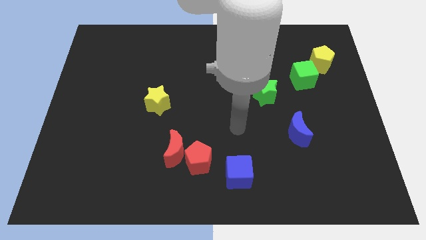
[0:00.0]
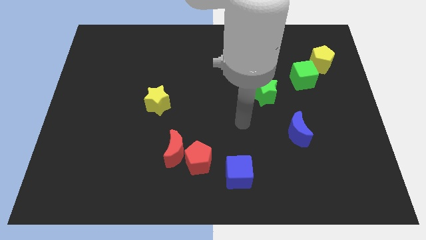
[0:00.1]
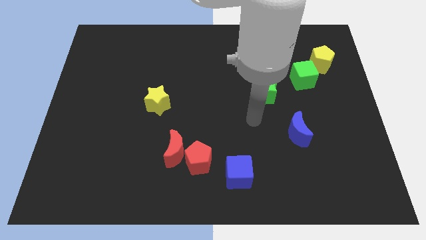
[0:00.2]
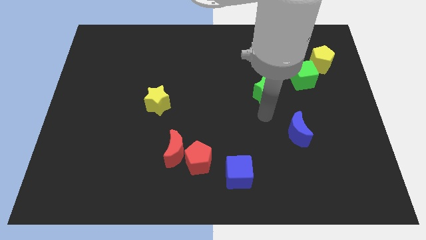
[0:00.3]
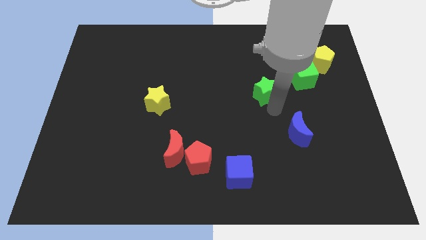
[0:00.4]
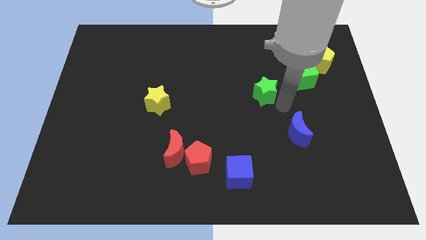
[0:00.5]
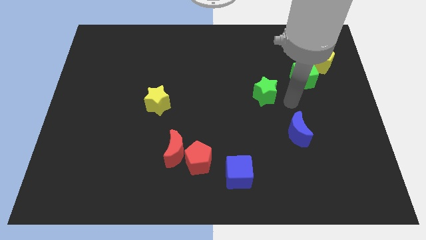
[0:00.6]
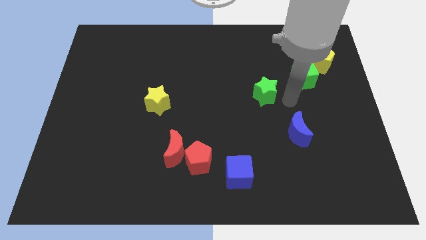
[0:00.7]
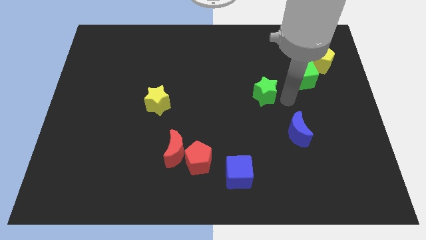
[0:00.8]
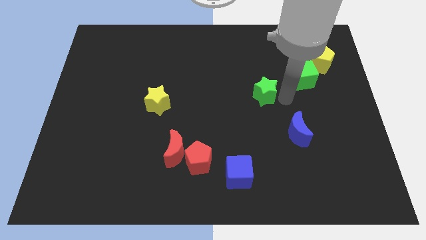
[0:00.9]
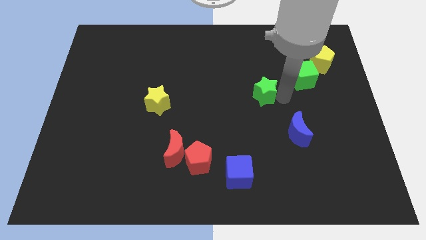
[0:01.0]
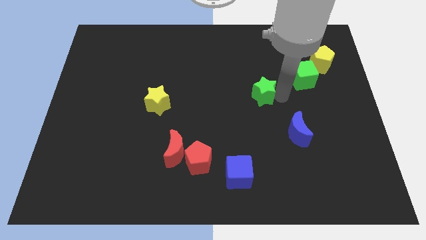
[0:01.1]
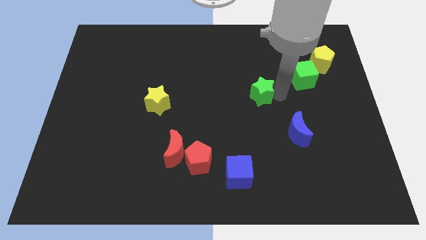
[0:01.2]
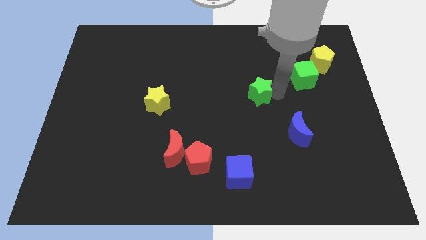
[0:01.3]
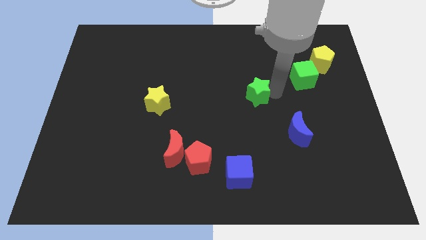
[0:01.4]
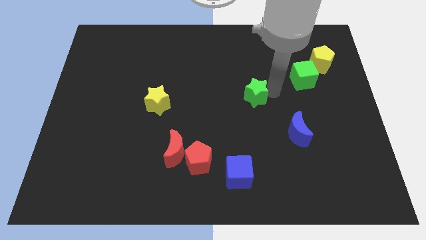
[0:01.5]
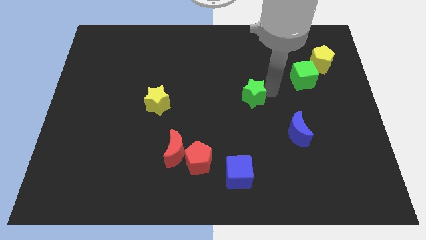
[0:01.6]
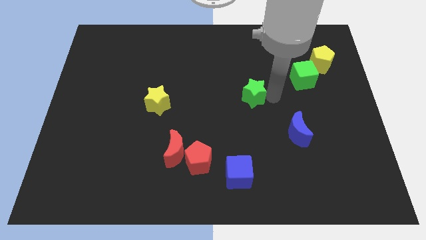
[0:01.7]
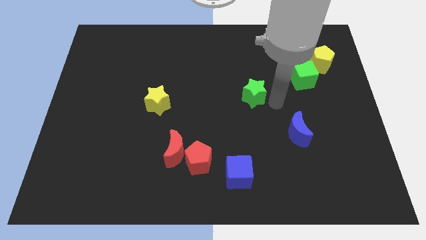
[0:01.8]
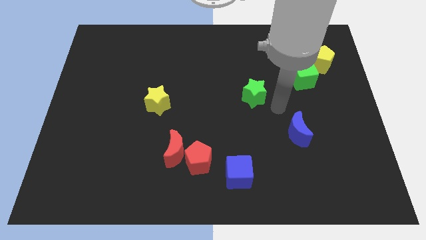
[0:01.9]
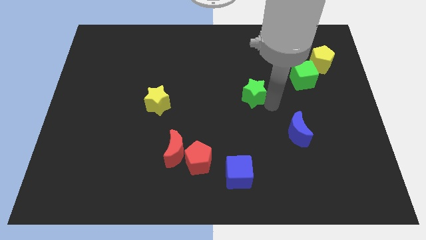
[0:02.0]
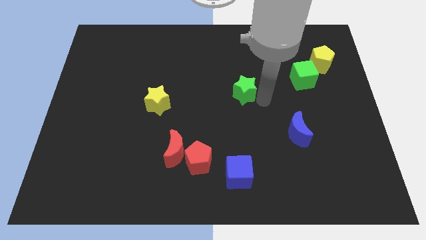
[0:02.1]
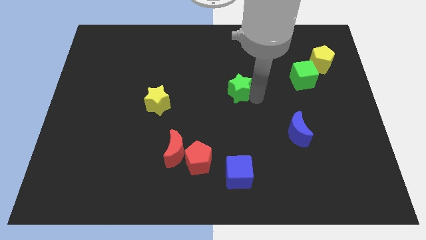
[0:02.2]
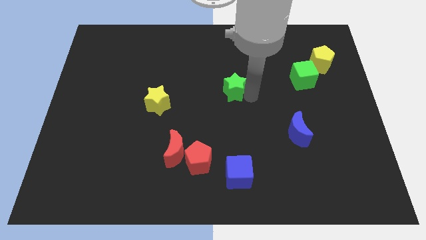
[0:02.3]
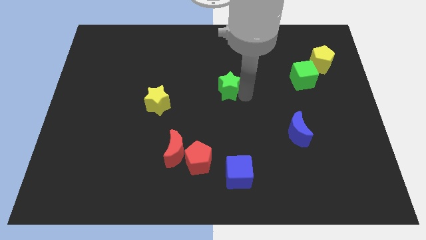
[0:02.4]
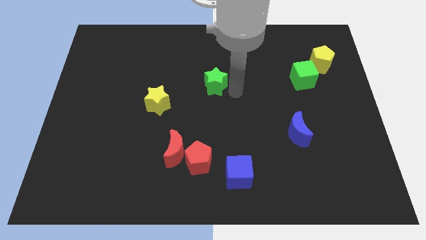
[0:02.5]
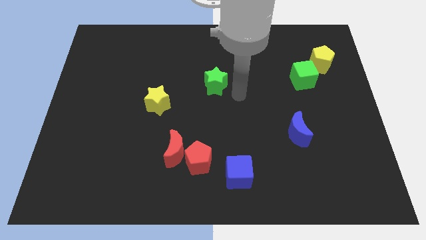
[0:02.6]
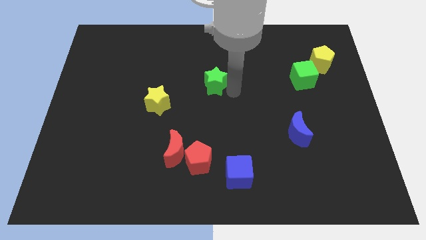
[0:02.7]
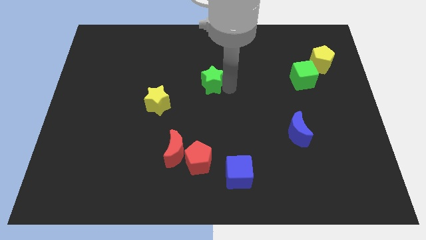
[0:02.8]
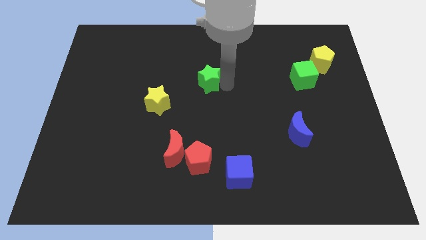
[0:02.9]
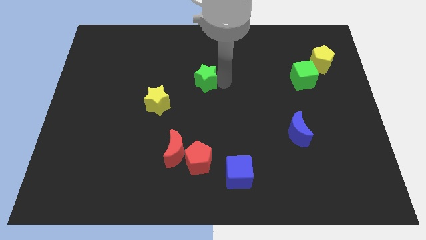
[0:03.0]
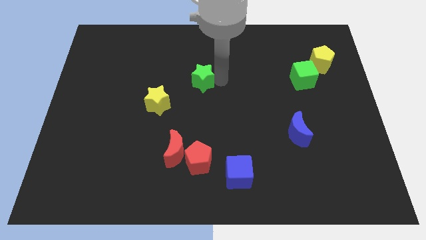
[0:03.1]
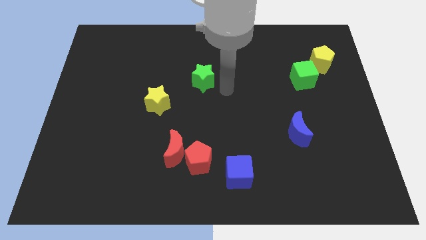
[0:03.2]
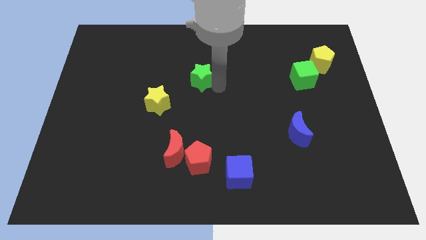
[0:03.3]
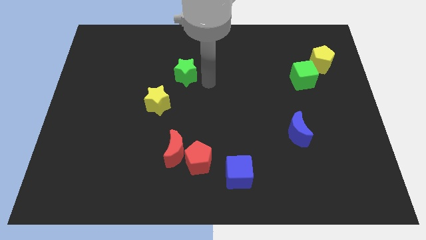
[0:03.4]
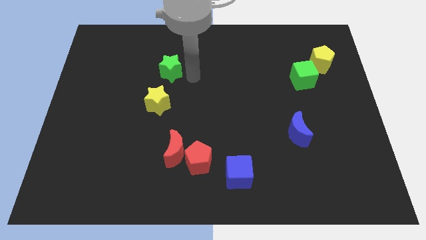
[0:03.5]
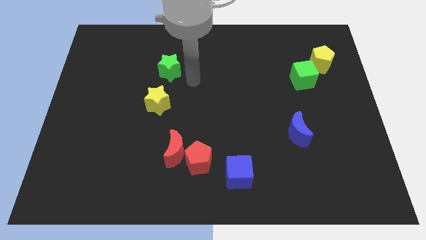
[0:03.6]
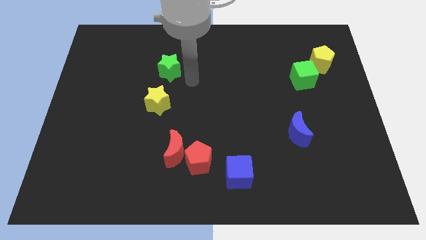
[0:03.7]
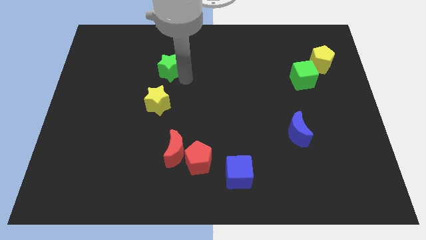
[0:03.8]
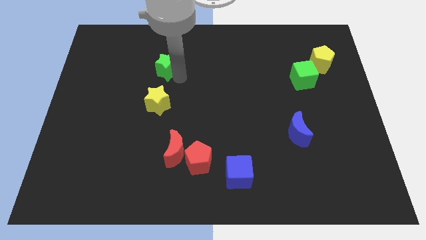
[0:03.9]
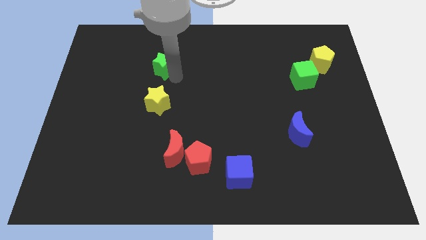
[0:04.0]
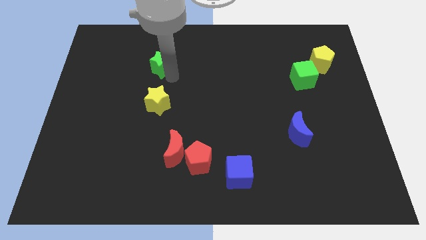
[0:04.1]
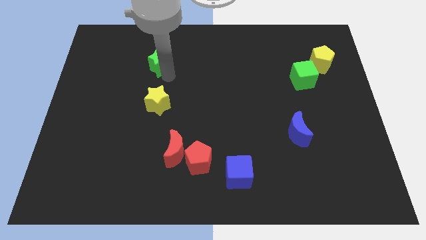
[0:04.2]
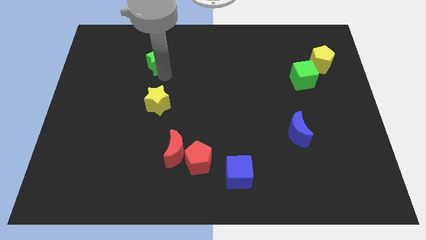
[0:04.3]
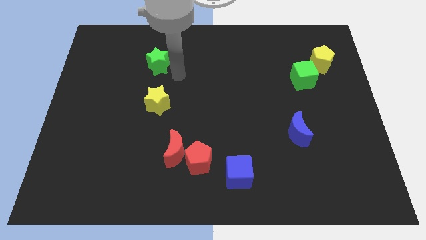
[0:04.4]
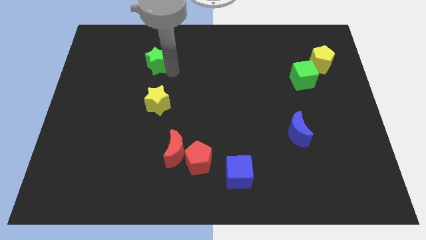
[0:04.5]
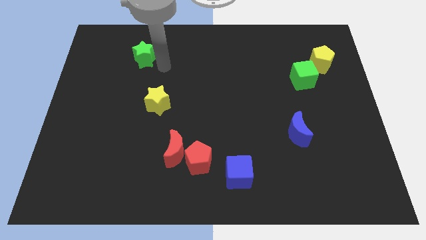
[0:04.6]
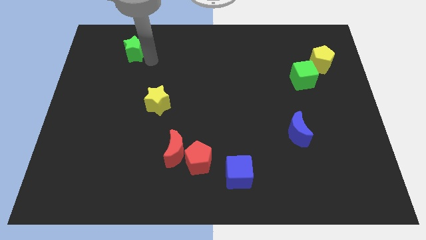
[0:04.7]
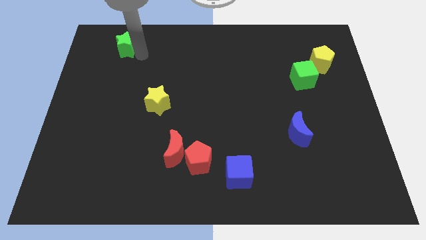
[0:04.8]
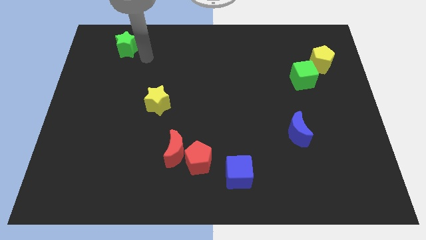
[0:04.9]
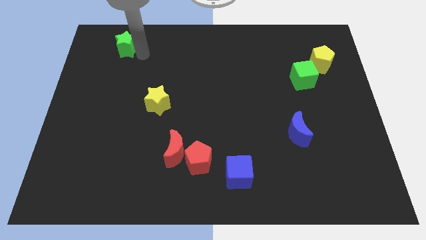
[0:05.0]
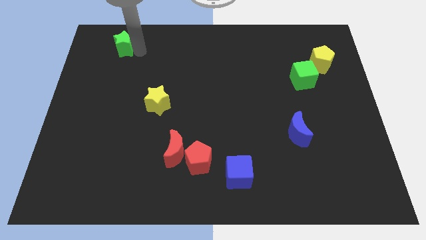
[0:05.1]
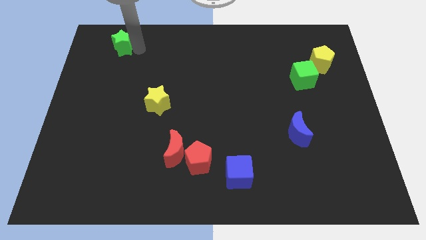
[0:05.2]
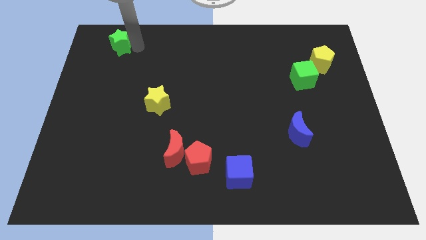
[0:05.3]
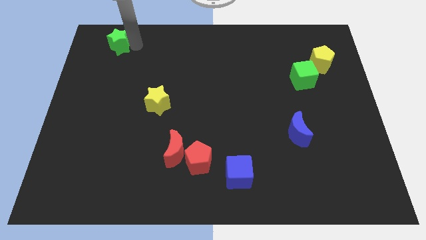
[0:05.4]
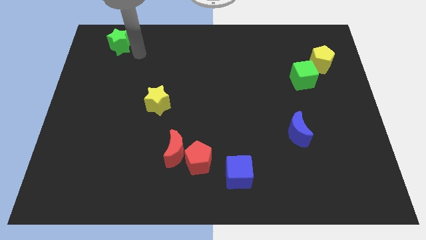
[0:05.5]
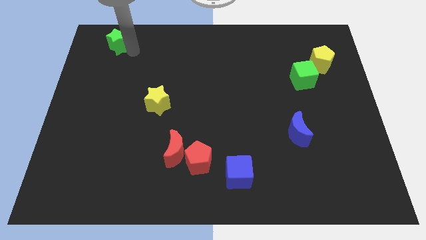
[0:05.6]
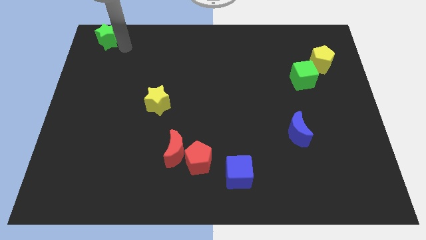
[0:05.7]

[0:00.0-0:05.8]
put the green star to the top left

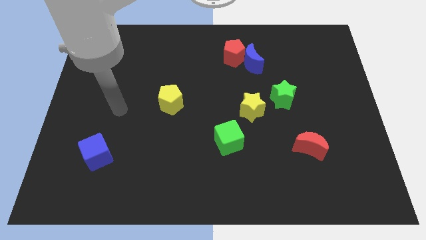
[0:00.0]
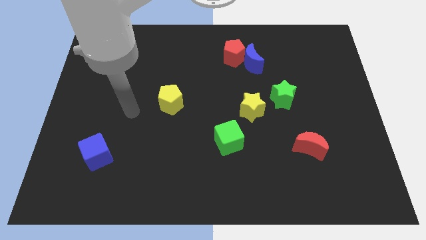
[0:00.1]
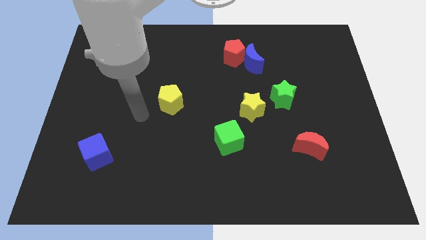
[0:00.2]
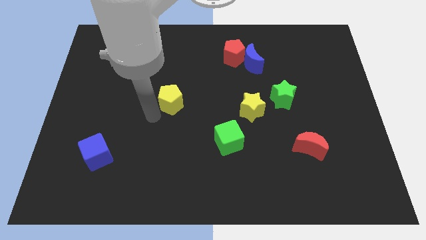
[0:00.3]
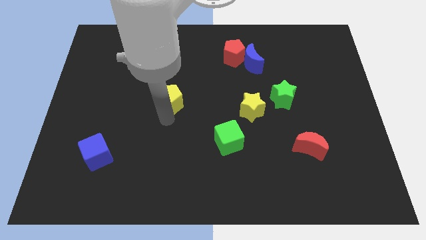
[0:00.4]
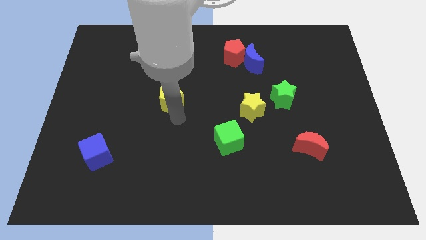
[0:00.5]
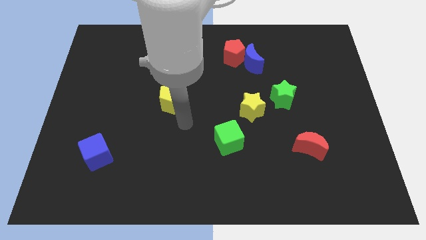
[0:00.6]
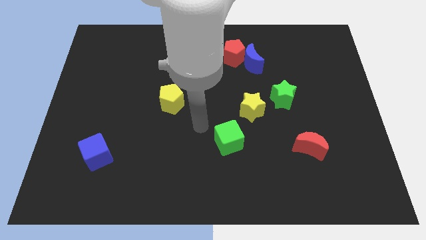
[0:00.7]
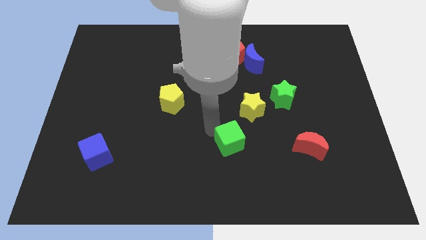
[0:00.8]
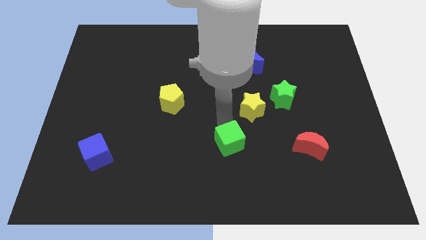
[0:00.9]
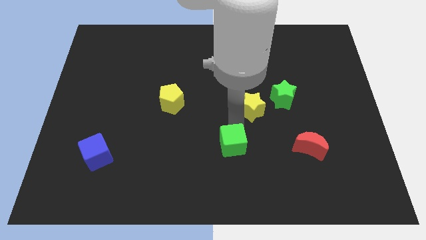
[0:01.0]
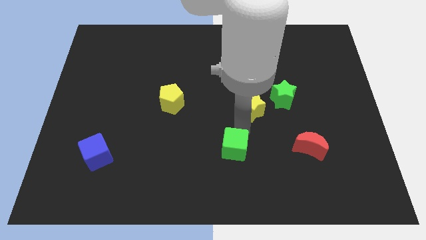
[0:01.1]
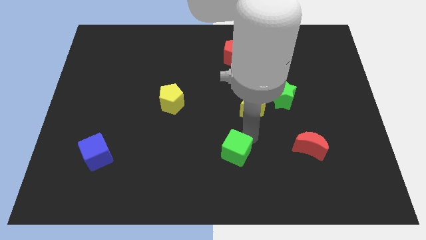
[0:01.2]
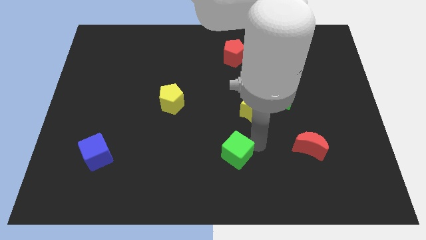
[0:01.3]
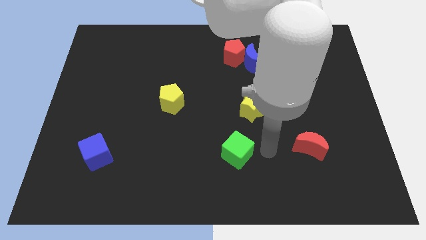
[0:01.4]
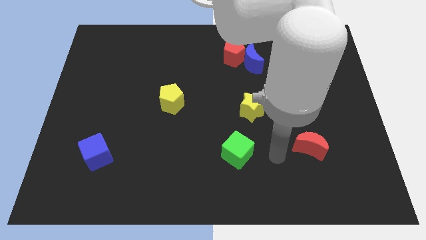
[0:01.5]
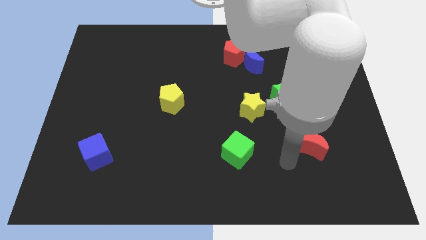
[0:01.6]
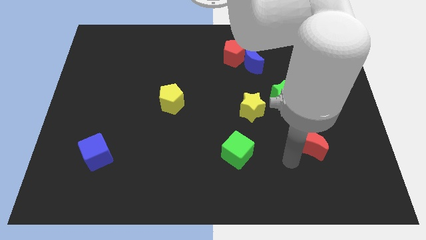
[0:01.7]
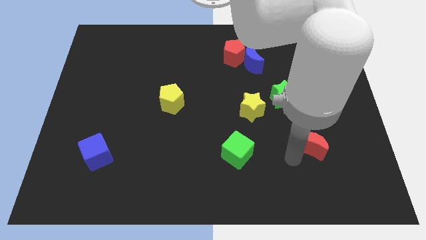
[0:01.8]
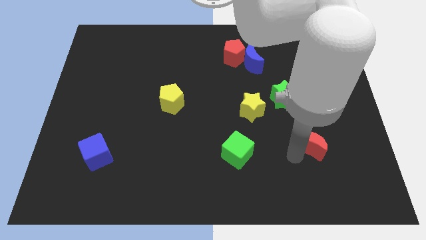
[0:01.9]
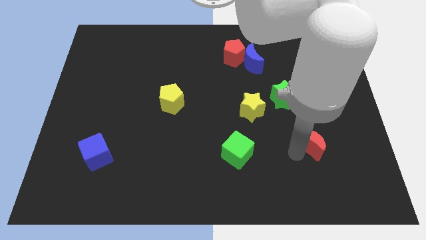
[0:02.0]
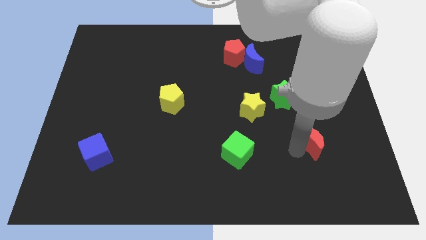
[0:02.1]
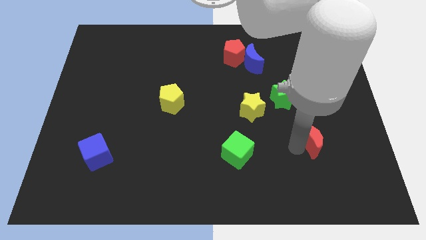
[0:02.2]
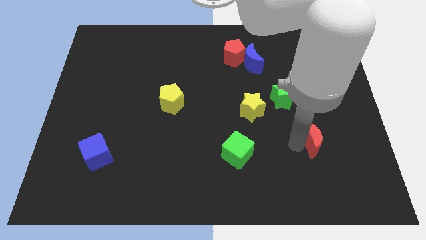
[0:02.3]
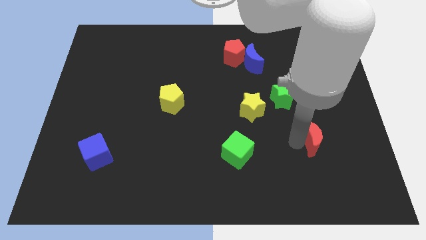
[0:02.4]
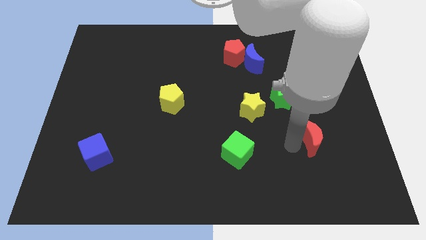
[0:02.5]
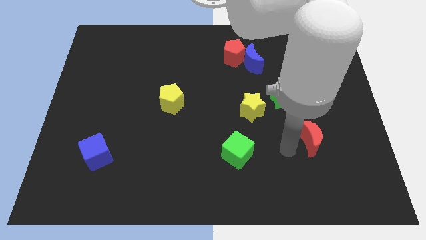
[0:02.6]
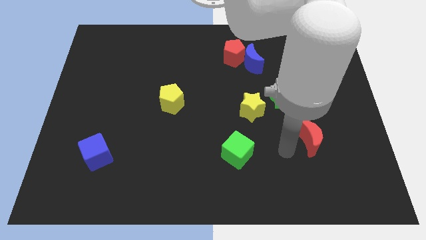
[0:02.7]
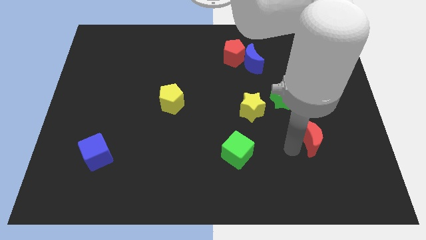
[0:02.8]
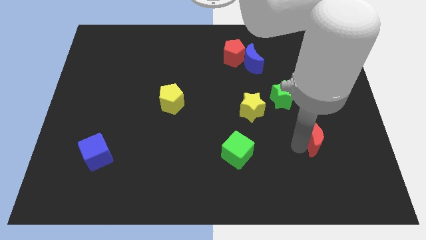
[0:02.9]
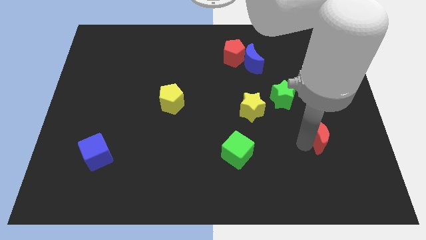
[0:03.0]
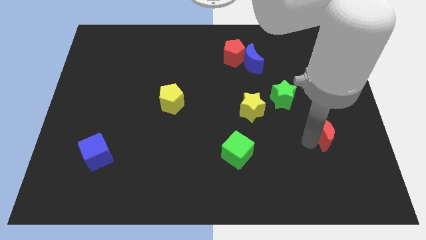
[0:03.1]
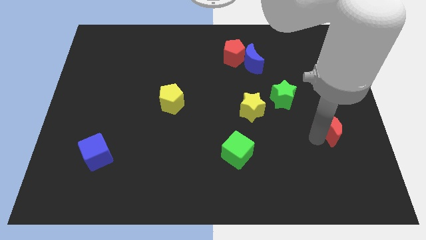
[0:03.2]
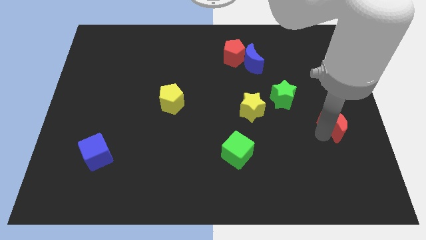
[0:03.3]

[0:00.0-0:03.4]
move the red moon to the right side of the board
